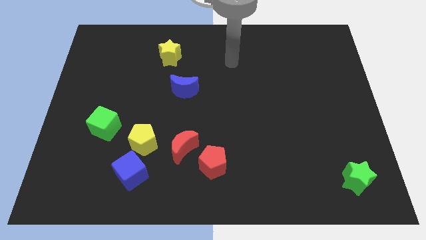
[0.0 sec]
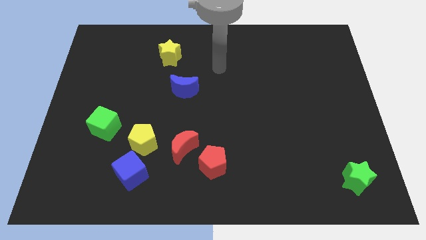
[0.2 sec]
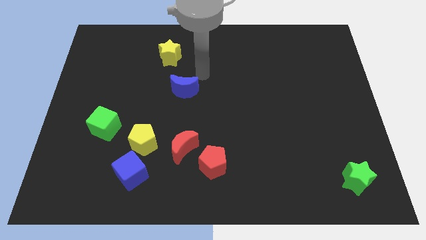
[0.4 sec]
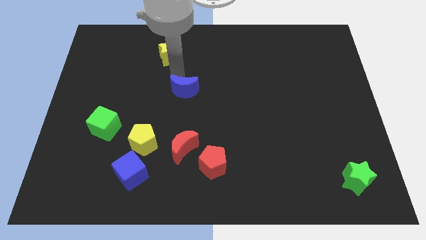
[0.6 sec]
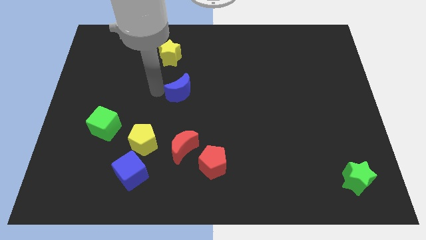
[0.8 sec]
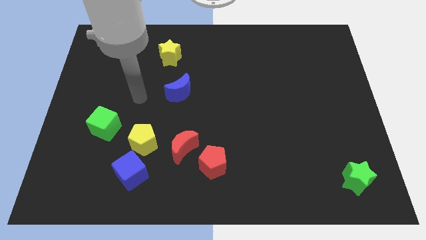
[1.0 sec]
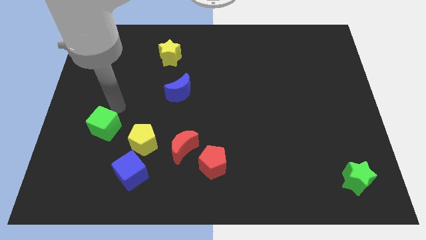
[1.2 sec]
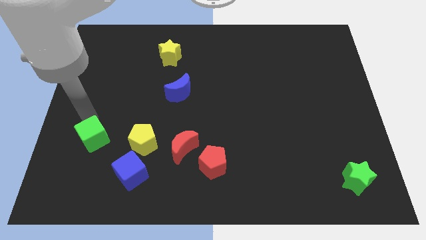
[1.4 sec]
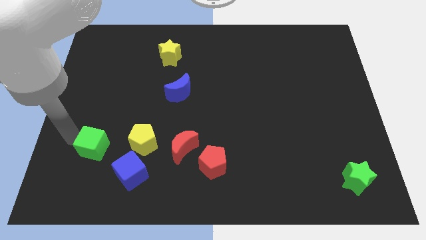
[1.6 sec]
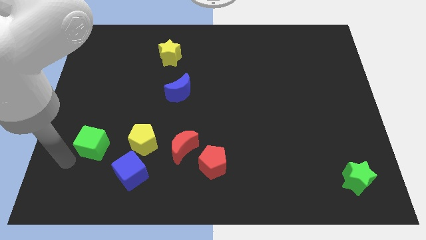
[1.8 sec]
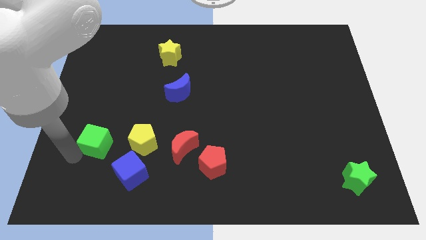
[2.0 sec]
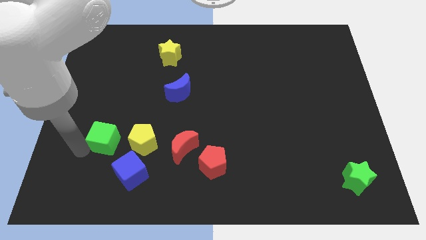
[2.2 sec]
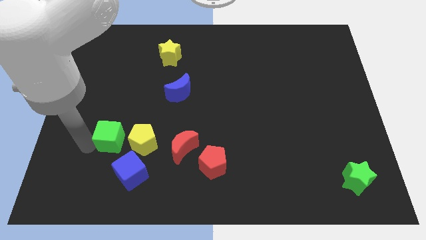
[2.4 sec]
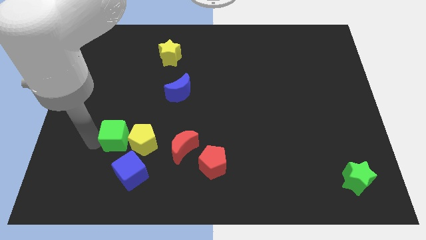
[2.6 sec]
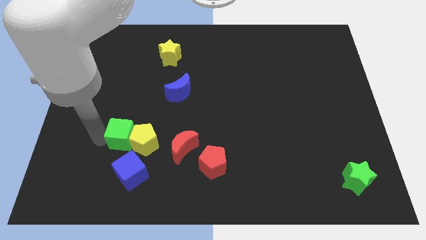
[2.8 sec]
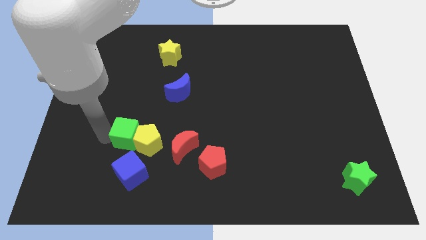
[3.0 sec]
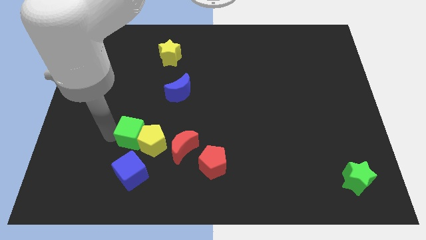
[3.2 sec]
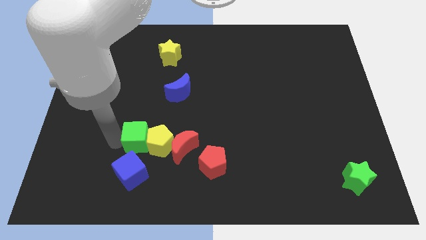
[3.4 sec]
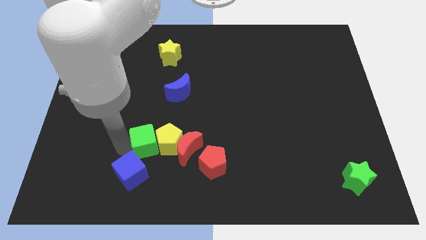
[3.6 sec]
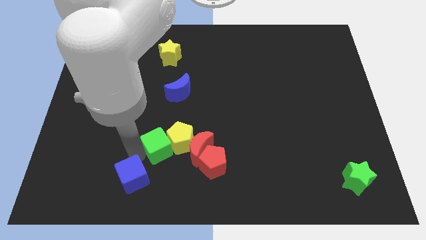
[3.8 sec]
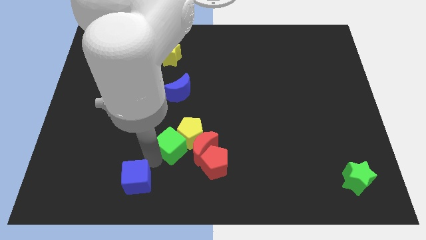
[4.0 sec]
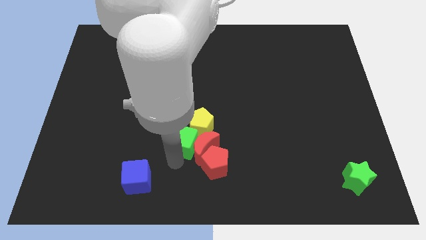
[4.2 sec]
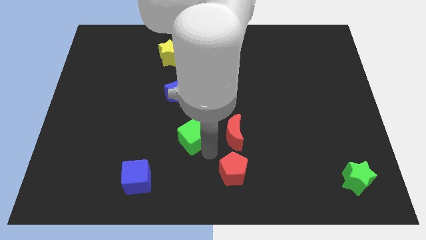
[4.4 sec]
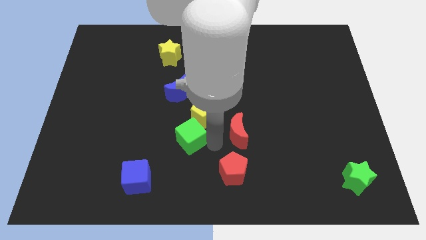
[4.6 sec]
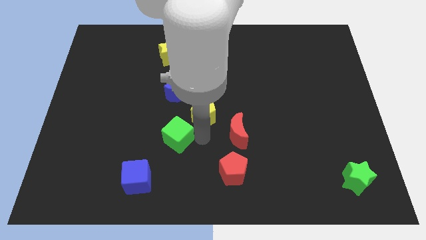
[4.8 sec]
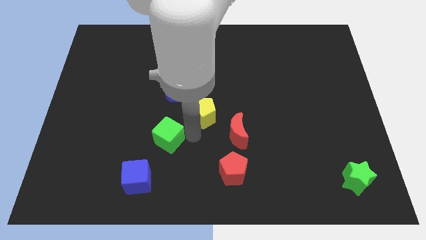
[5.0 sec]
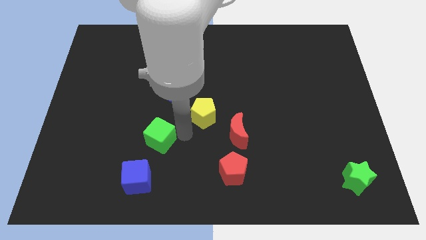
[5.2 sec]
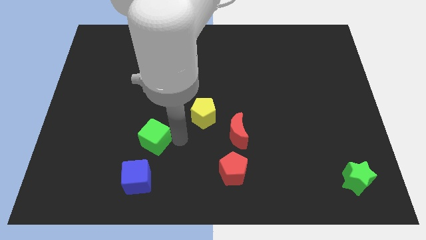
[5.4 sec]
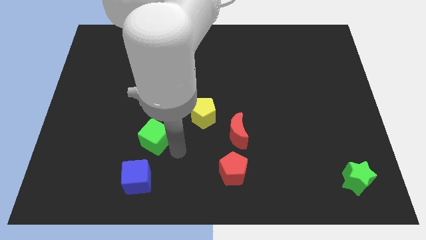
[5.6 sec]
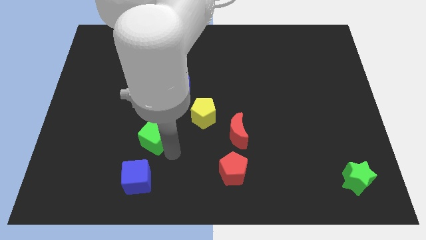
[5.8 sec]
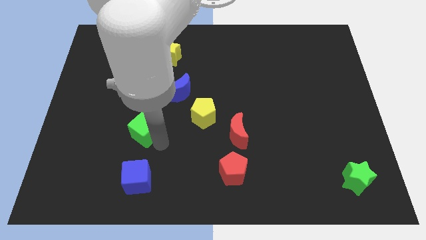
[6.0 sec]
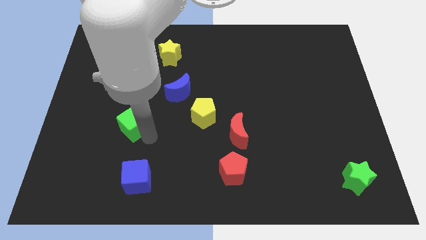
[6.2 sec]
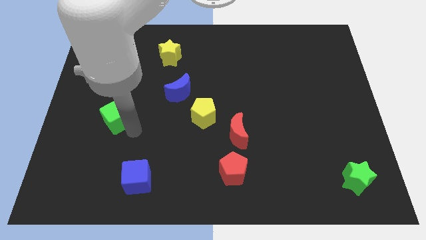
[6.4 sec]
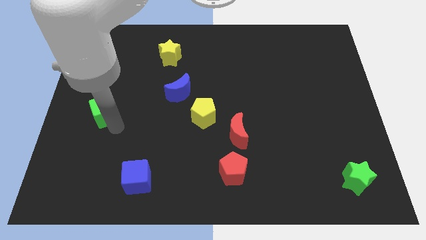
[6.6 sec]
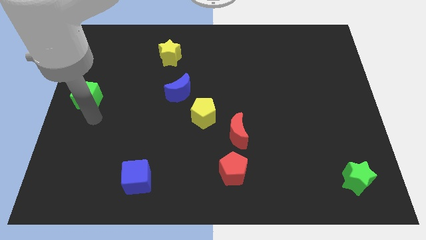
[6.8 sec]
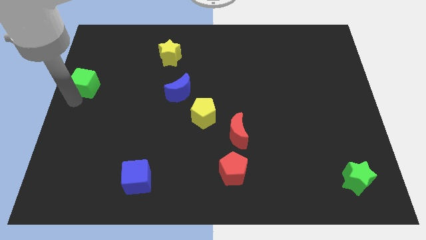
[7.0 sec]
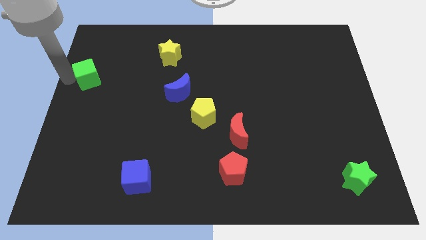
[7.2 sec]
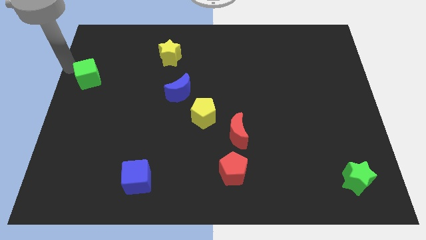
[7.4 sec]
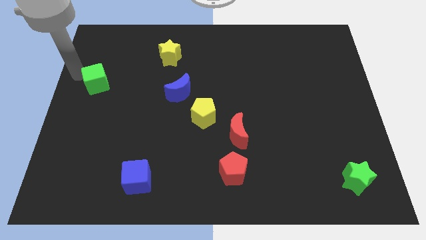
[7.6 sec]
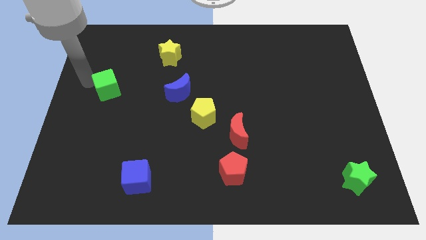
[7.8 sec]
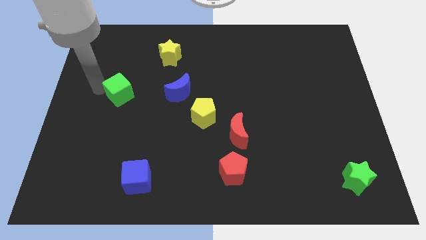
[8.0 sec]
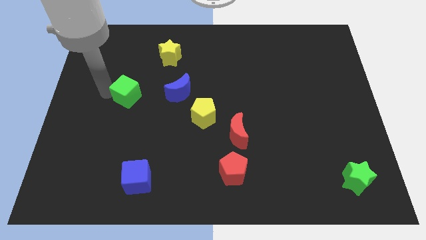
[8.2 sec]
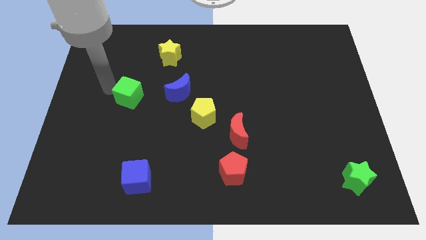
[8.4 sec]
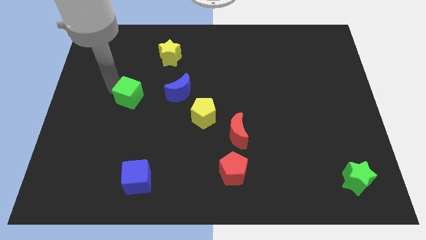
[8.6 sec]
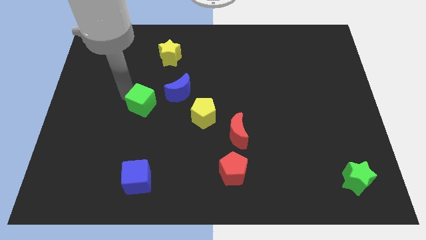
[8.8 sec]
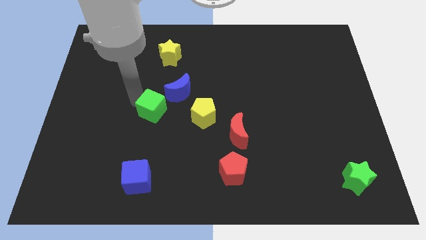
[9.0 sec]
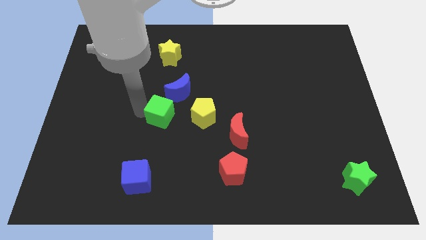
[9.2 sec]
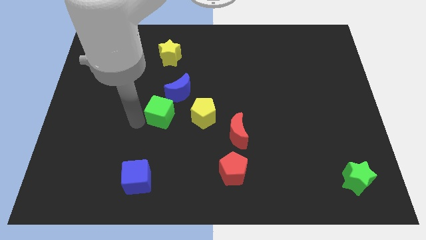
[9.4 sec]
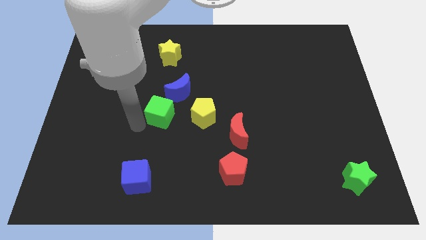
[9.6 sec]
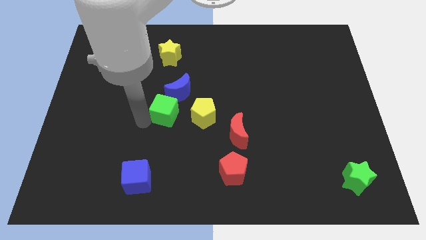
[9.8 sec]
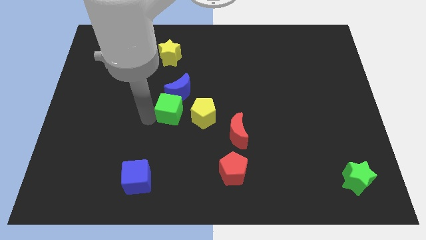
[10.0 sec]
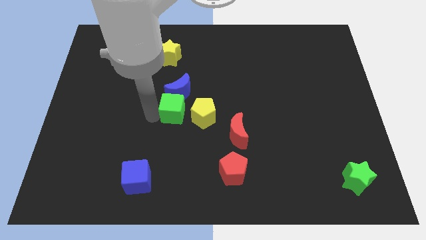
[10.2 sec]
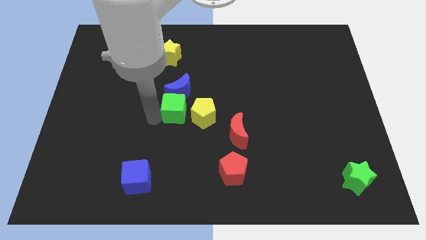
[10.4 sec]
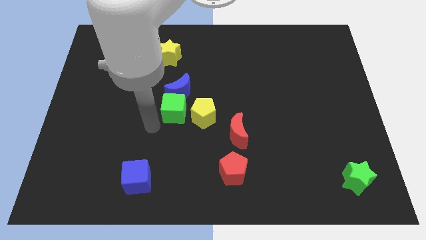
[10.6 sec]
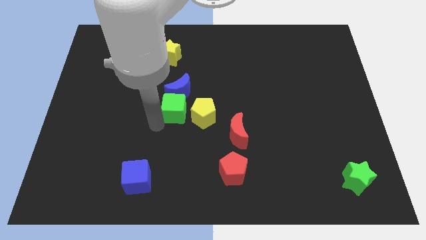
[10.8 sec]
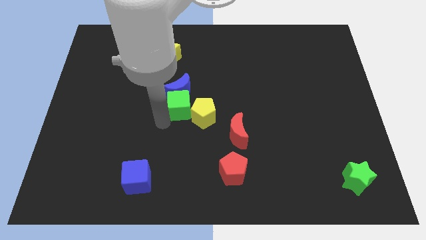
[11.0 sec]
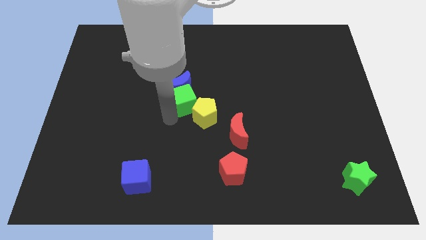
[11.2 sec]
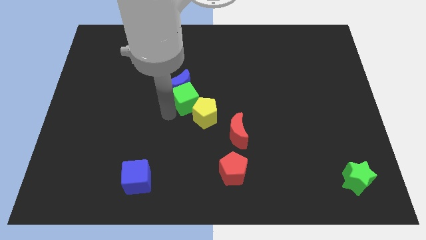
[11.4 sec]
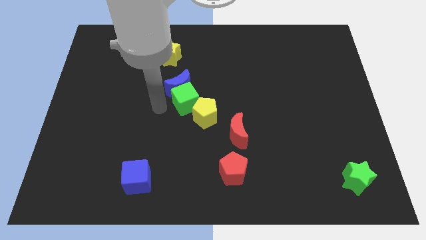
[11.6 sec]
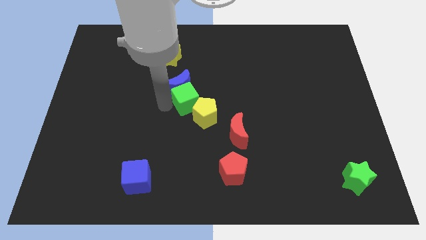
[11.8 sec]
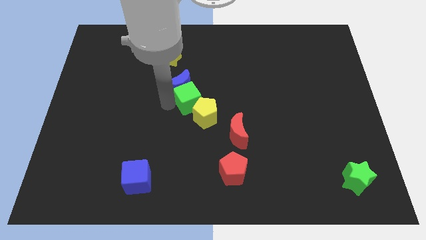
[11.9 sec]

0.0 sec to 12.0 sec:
move the green cube just right of the blue moon
